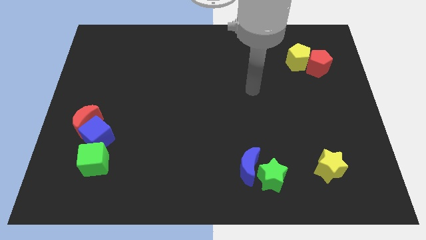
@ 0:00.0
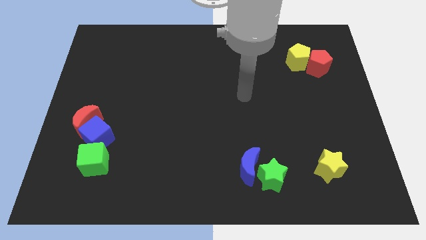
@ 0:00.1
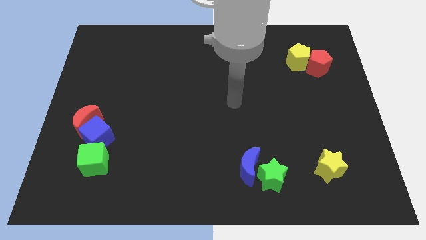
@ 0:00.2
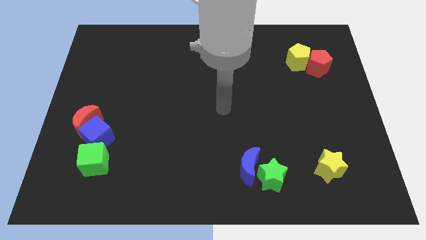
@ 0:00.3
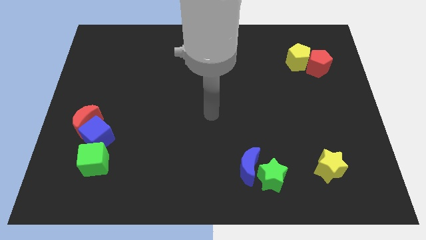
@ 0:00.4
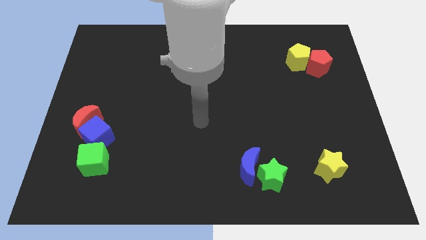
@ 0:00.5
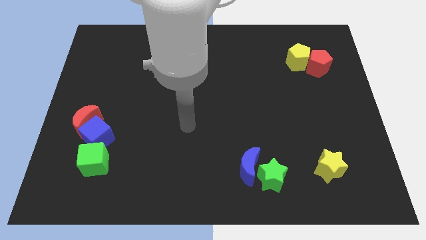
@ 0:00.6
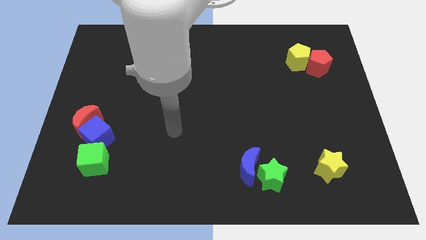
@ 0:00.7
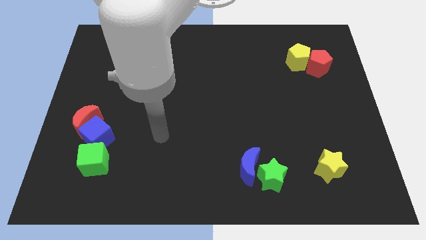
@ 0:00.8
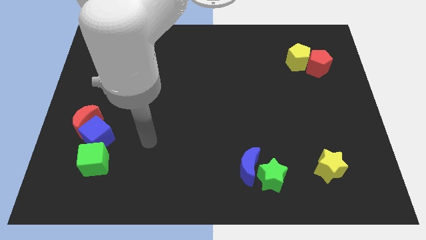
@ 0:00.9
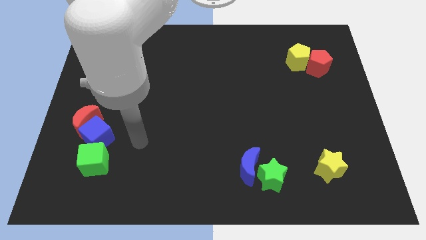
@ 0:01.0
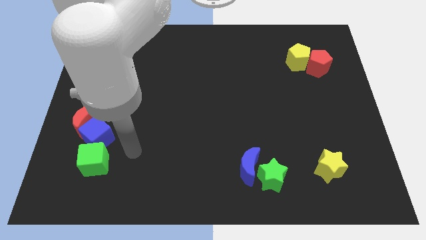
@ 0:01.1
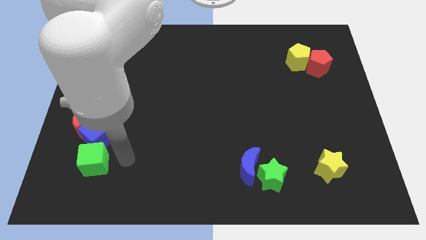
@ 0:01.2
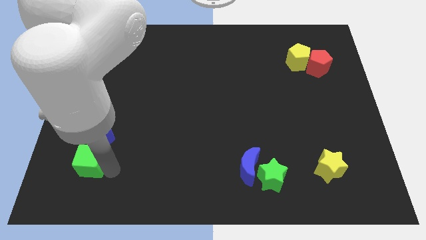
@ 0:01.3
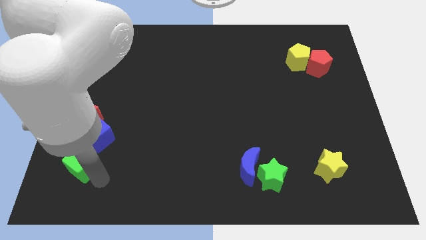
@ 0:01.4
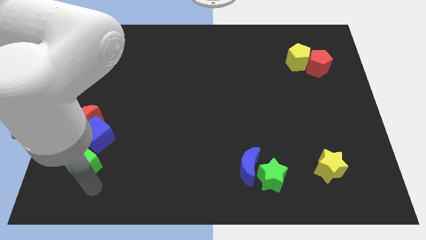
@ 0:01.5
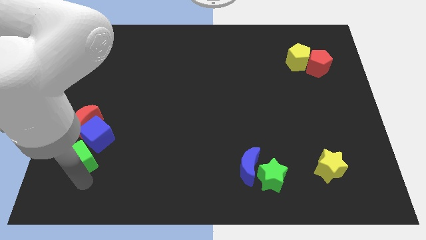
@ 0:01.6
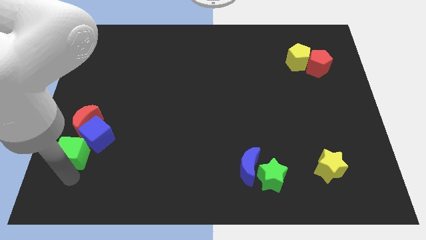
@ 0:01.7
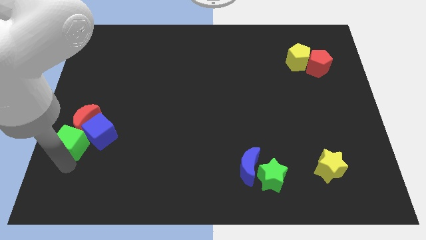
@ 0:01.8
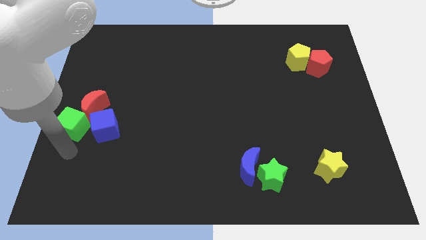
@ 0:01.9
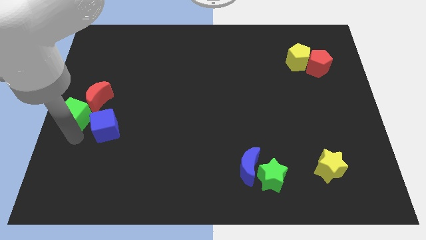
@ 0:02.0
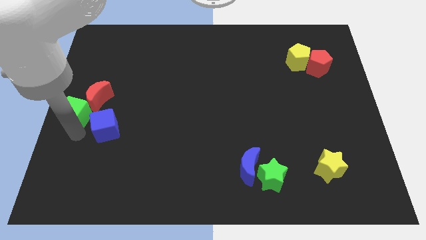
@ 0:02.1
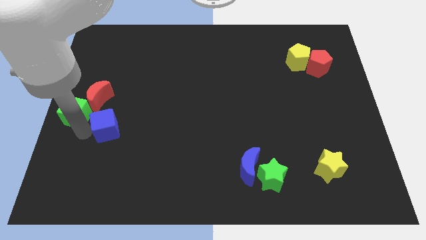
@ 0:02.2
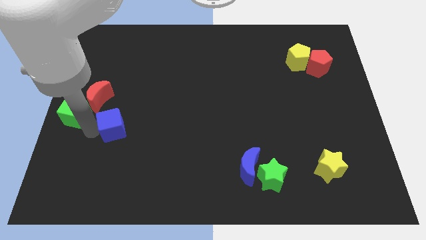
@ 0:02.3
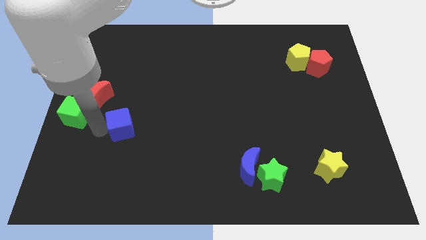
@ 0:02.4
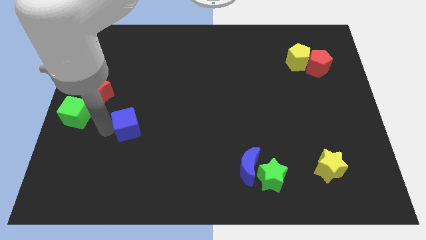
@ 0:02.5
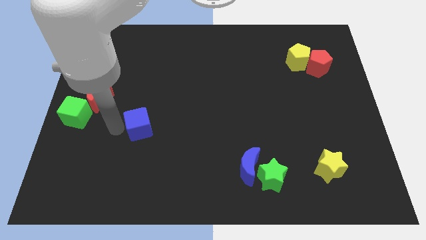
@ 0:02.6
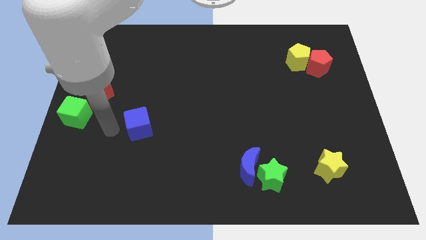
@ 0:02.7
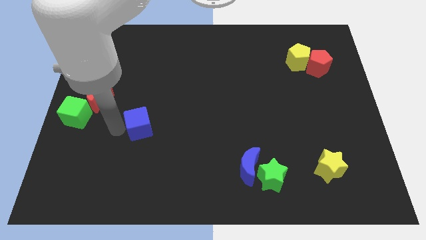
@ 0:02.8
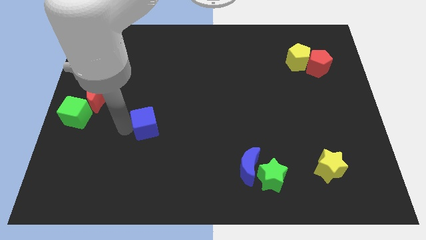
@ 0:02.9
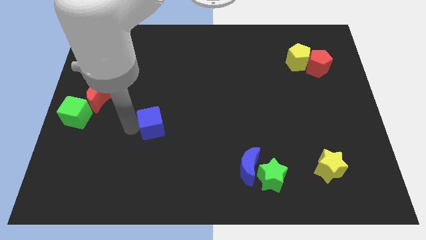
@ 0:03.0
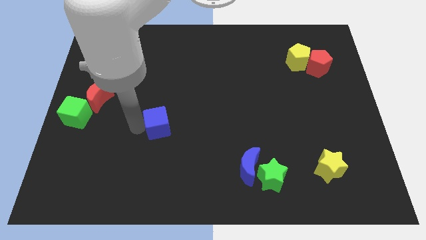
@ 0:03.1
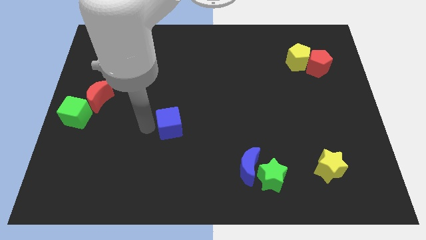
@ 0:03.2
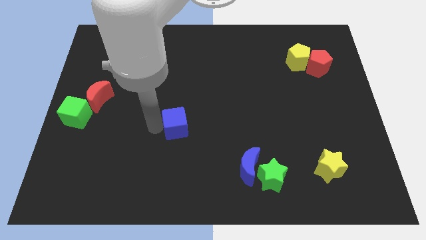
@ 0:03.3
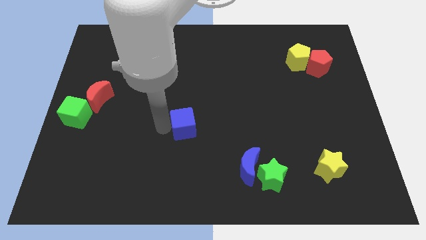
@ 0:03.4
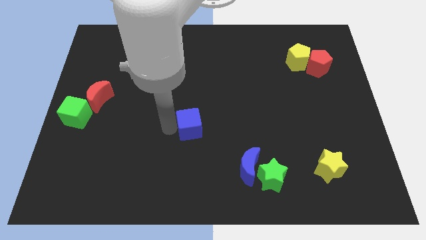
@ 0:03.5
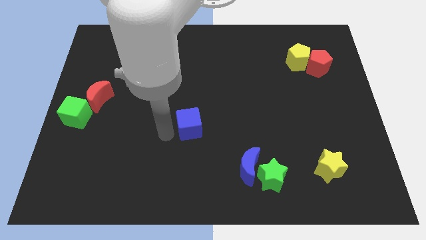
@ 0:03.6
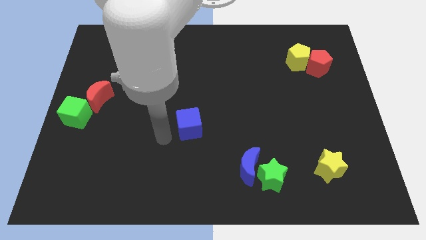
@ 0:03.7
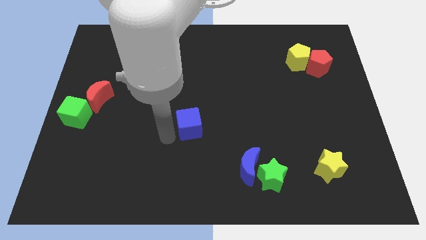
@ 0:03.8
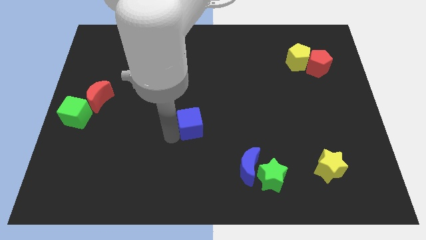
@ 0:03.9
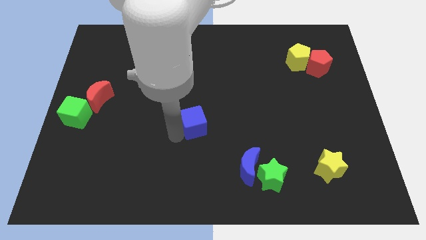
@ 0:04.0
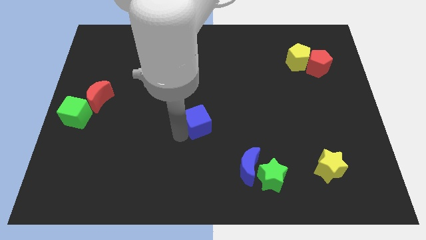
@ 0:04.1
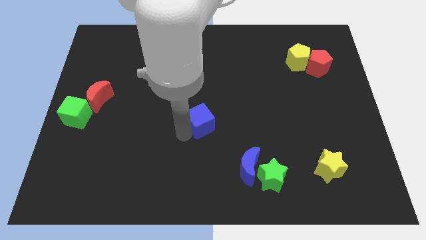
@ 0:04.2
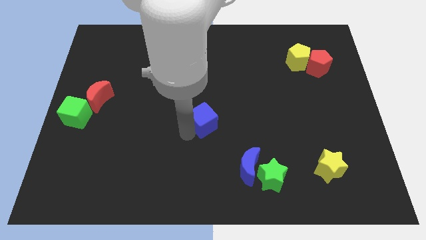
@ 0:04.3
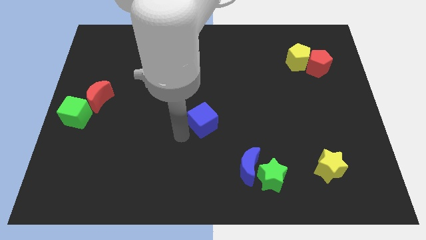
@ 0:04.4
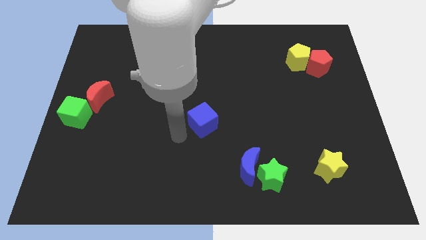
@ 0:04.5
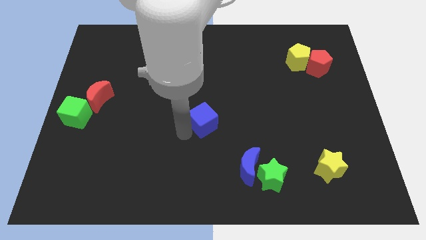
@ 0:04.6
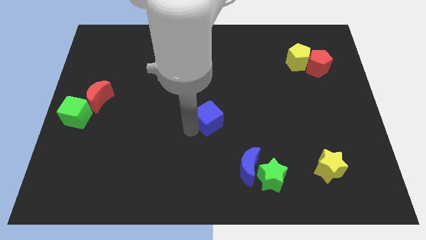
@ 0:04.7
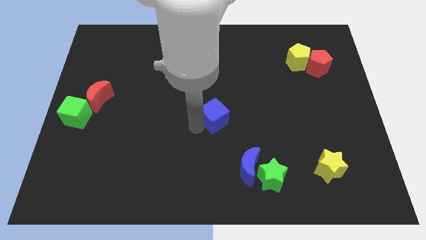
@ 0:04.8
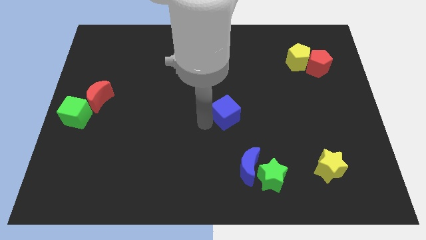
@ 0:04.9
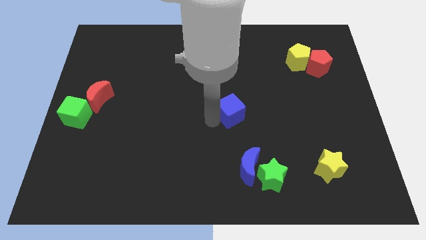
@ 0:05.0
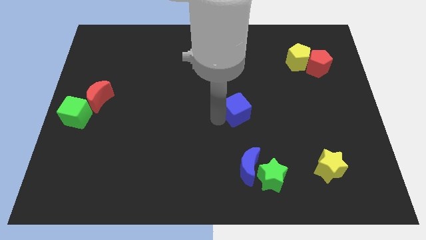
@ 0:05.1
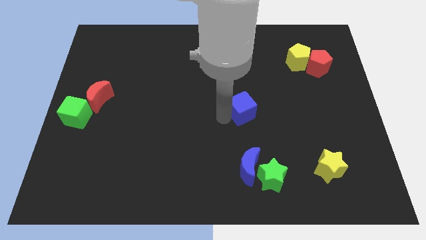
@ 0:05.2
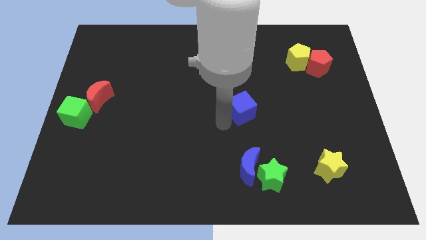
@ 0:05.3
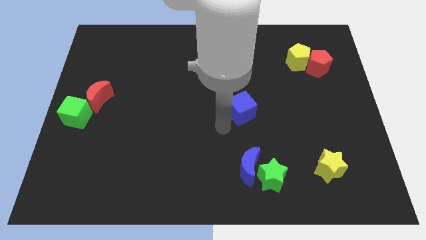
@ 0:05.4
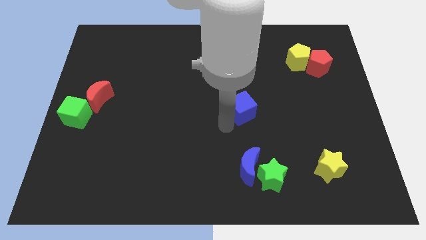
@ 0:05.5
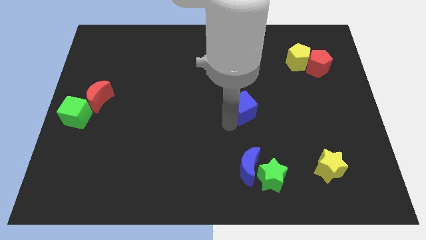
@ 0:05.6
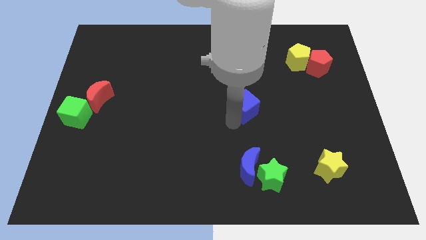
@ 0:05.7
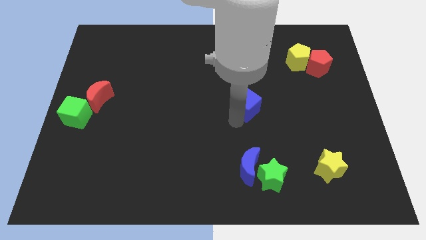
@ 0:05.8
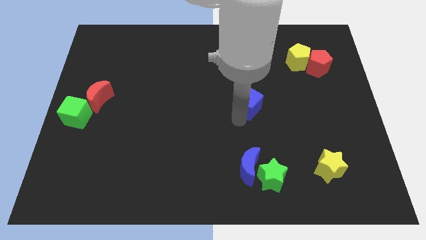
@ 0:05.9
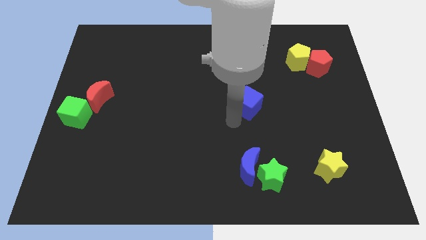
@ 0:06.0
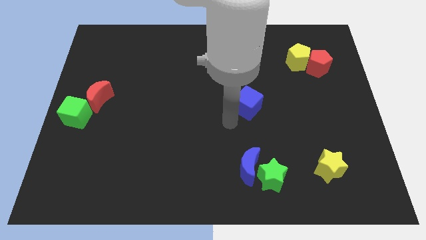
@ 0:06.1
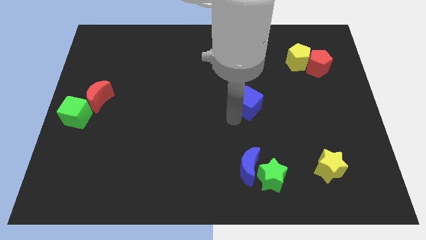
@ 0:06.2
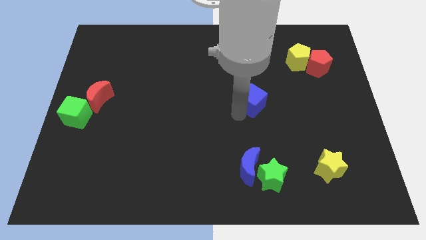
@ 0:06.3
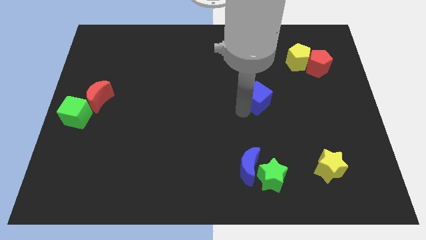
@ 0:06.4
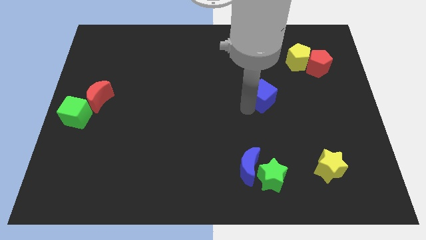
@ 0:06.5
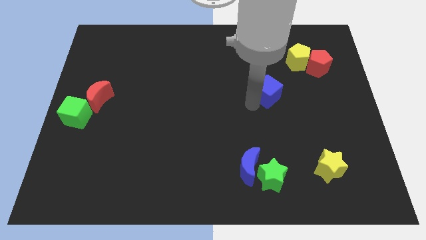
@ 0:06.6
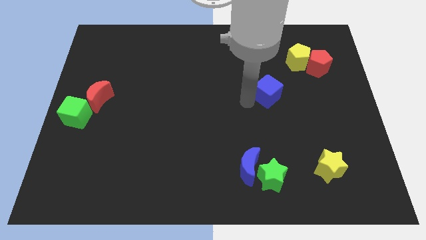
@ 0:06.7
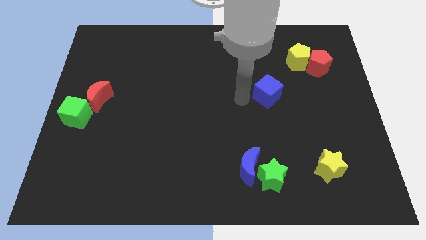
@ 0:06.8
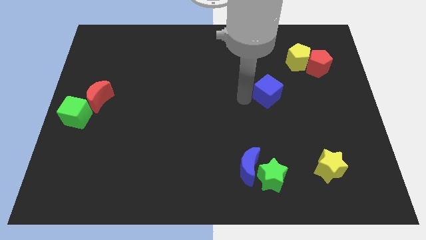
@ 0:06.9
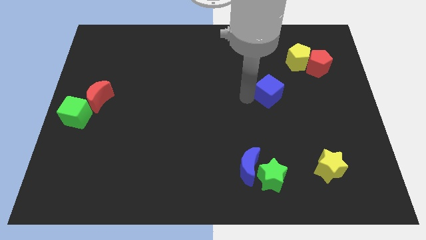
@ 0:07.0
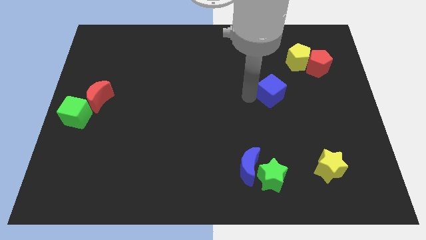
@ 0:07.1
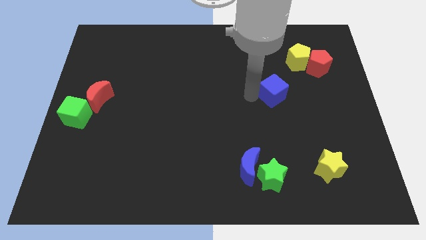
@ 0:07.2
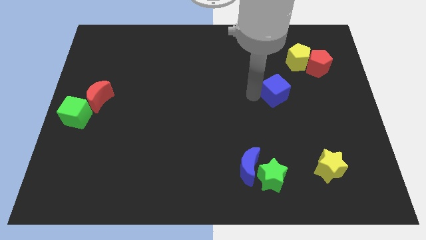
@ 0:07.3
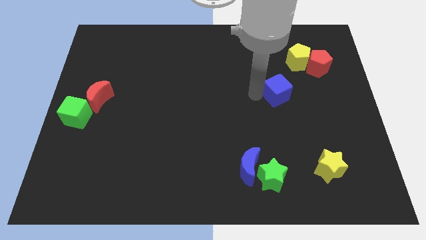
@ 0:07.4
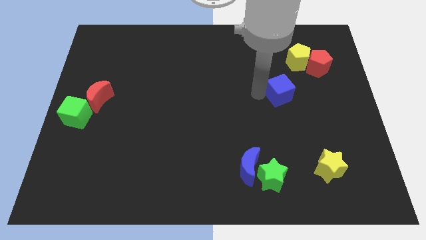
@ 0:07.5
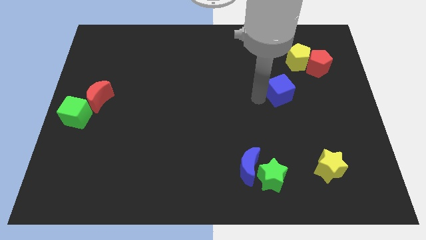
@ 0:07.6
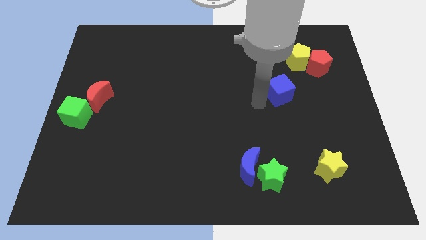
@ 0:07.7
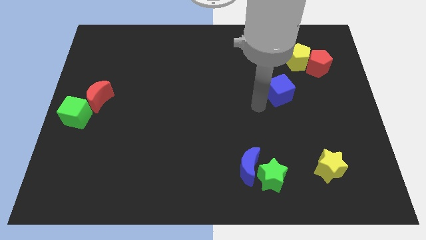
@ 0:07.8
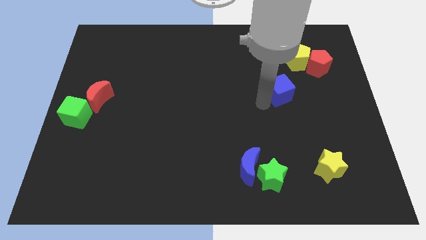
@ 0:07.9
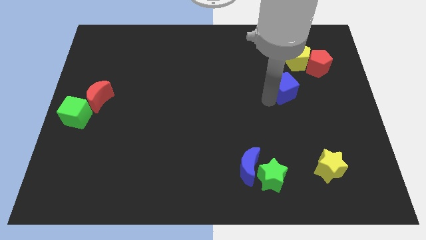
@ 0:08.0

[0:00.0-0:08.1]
slide the blue cube diagonally down and to the left of the red pentagon

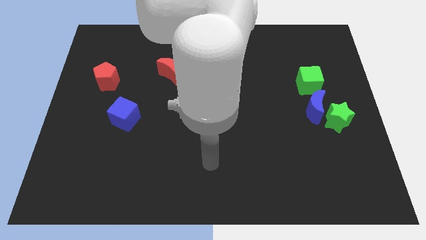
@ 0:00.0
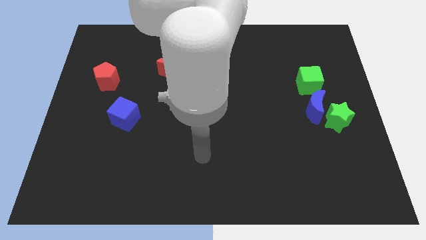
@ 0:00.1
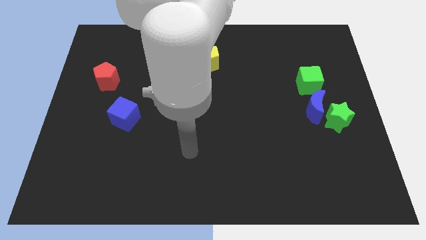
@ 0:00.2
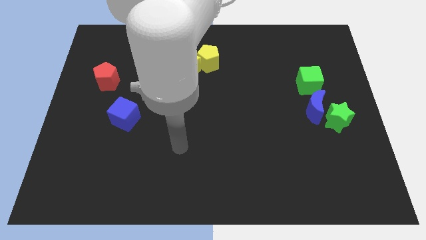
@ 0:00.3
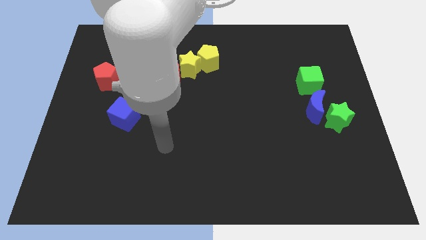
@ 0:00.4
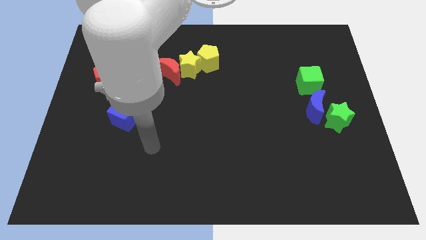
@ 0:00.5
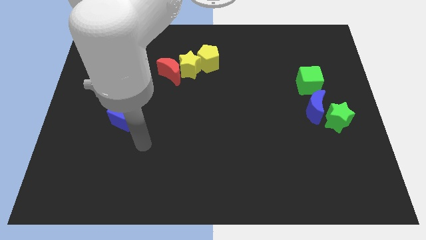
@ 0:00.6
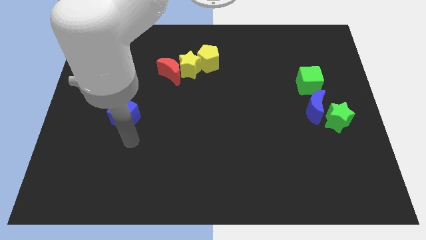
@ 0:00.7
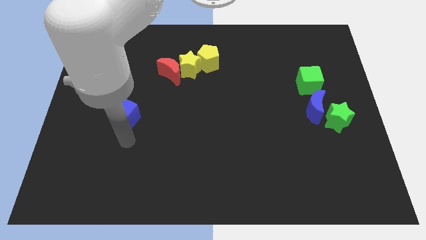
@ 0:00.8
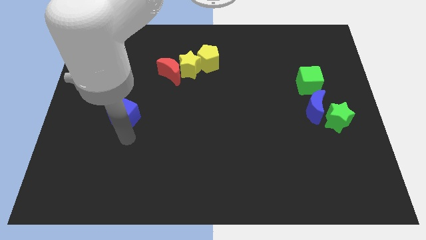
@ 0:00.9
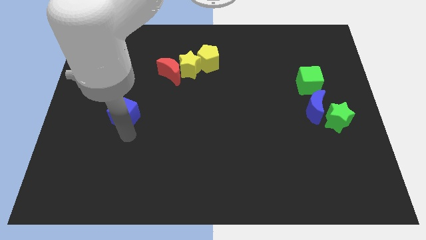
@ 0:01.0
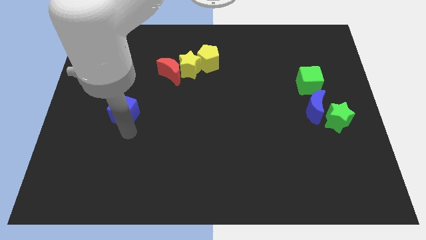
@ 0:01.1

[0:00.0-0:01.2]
push the blue cube diagonally down and to the right of the red pentagon
